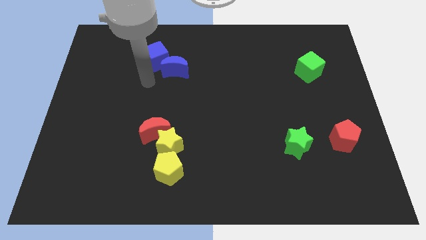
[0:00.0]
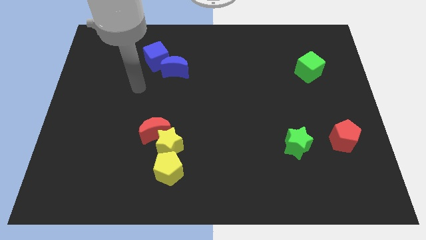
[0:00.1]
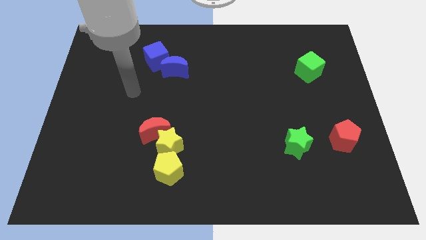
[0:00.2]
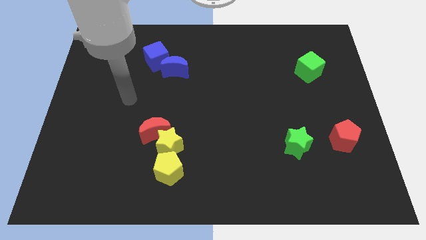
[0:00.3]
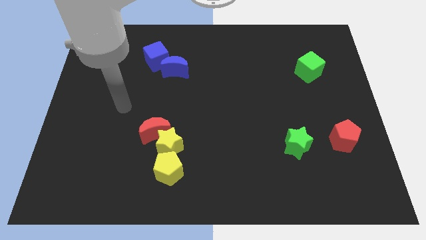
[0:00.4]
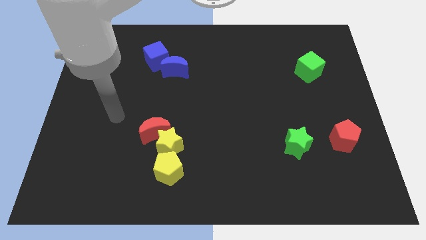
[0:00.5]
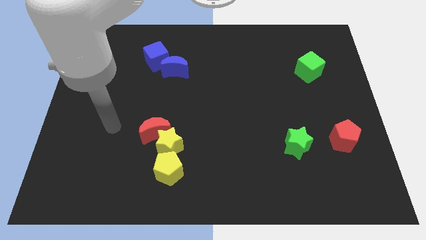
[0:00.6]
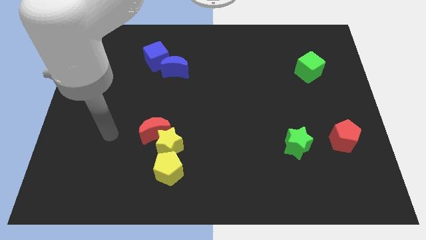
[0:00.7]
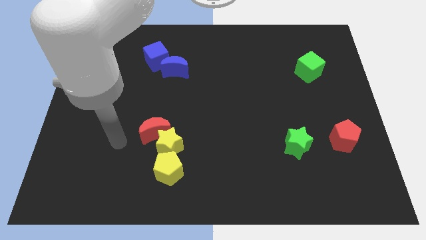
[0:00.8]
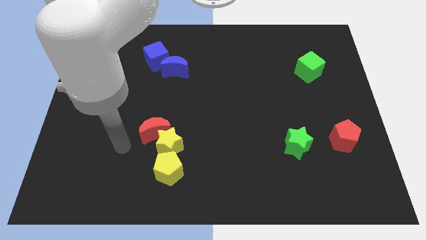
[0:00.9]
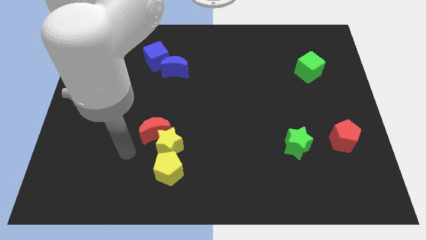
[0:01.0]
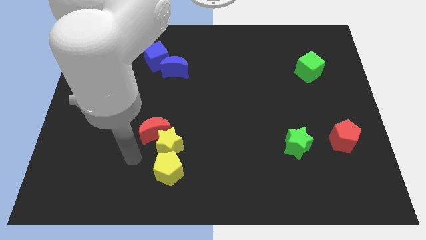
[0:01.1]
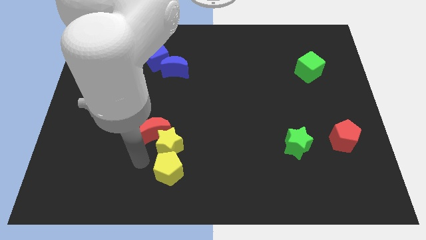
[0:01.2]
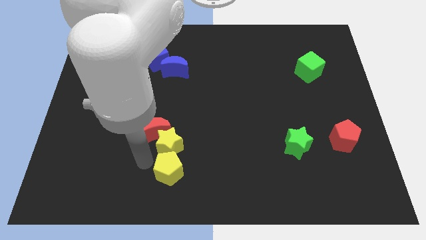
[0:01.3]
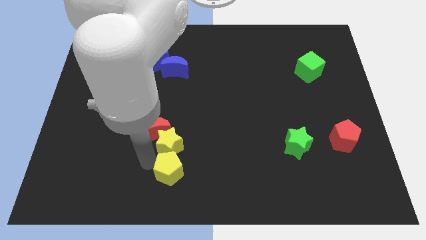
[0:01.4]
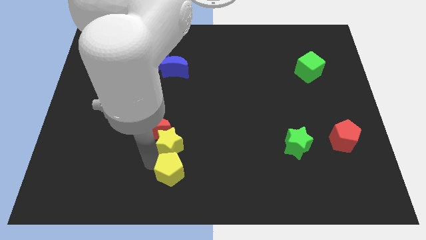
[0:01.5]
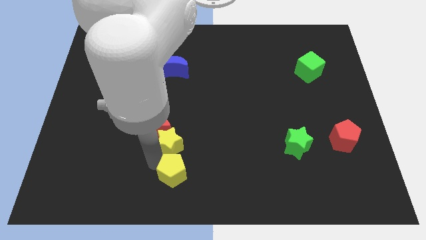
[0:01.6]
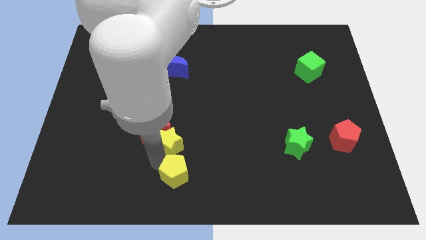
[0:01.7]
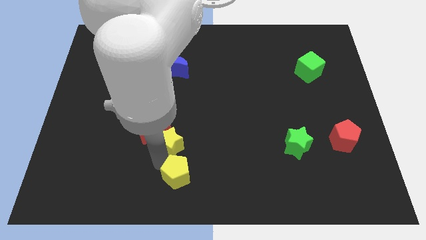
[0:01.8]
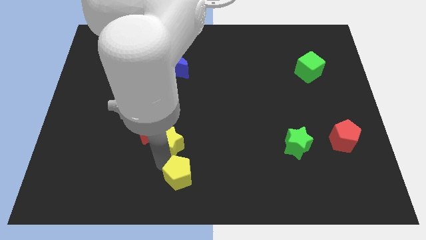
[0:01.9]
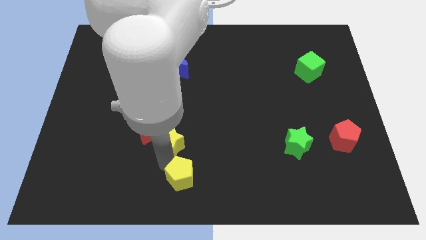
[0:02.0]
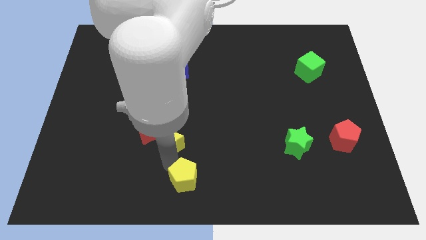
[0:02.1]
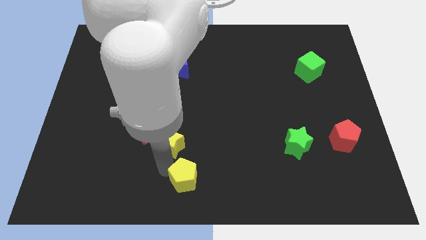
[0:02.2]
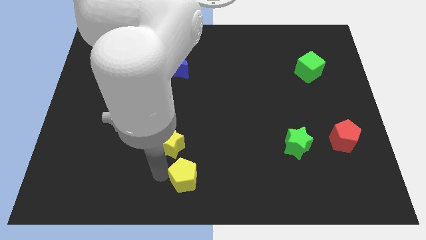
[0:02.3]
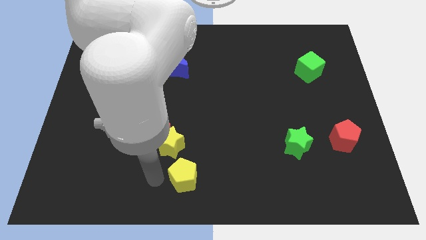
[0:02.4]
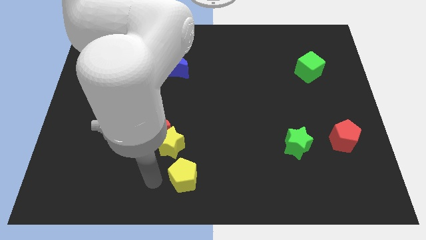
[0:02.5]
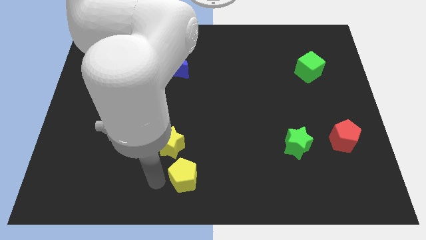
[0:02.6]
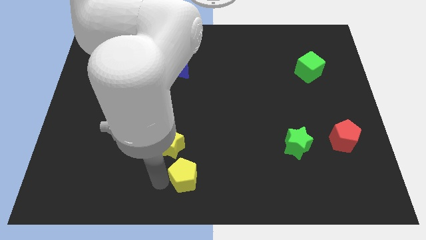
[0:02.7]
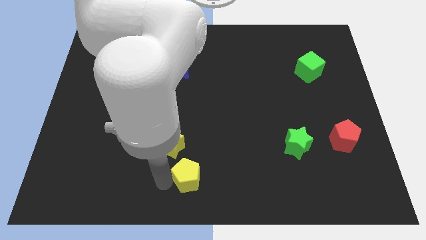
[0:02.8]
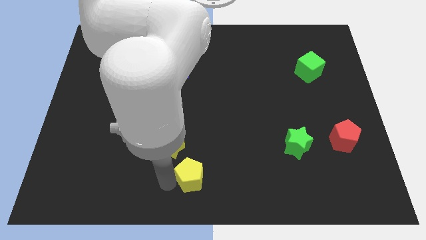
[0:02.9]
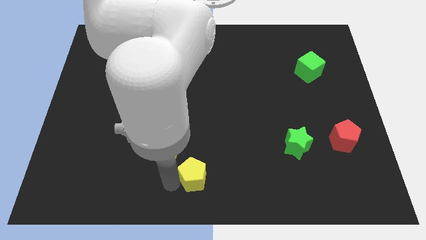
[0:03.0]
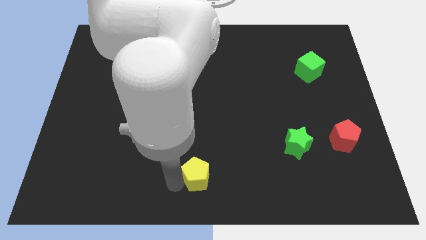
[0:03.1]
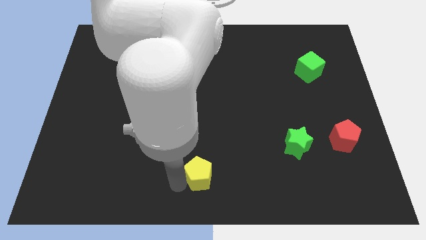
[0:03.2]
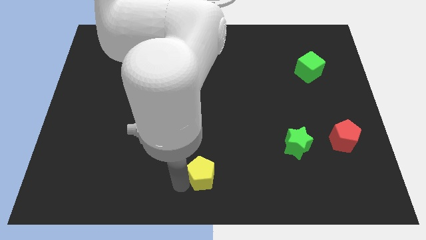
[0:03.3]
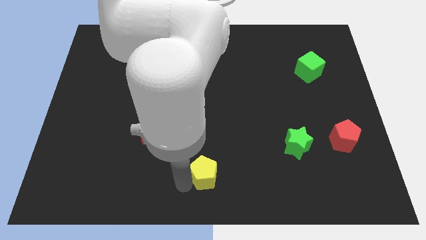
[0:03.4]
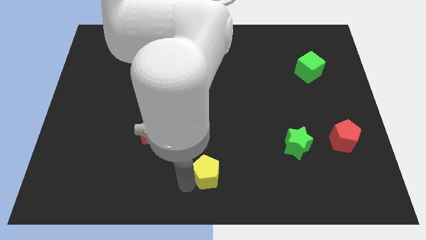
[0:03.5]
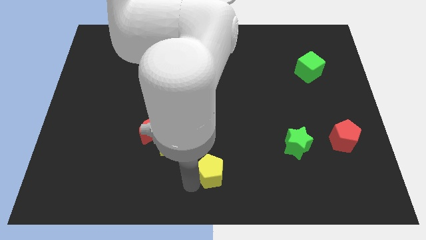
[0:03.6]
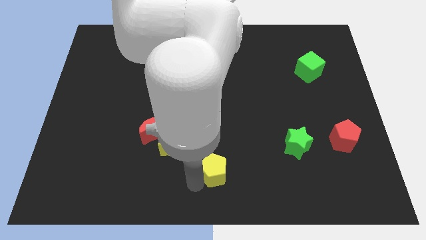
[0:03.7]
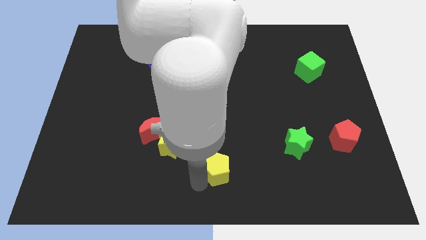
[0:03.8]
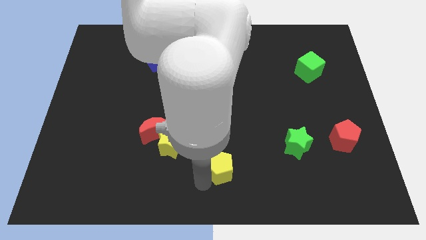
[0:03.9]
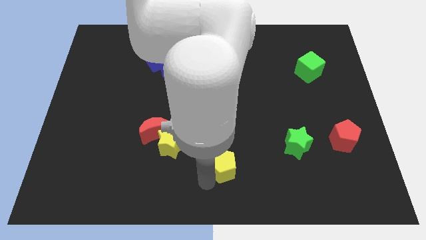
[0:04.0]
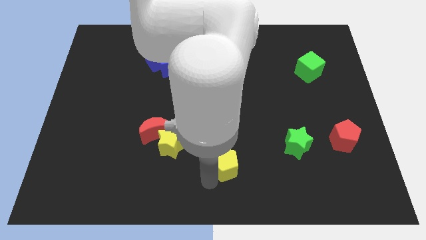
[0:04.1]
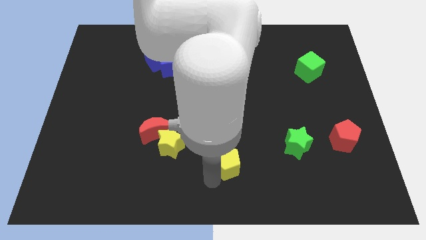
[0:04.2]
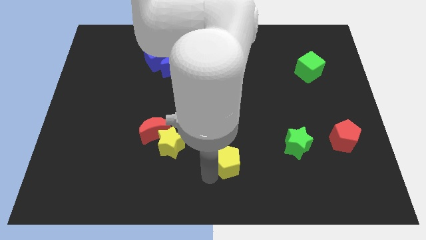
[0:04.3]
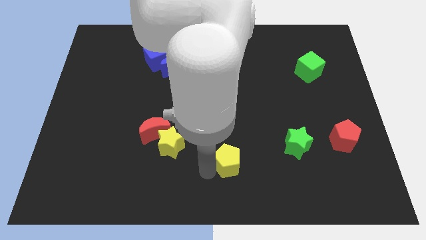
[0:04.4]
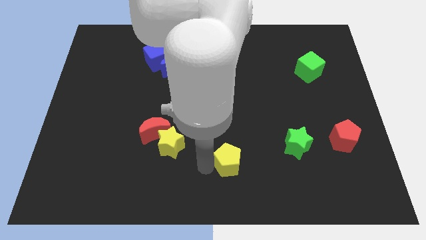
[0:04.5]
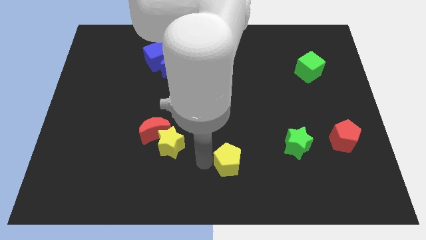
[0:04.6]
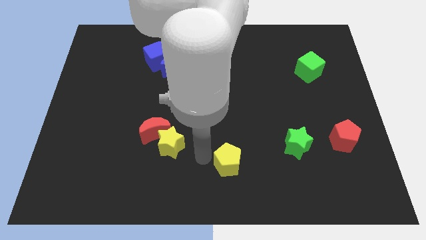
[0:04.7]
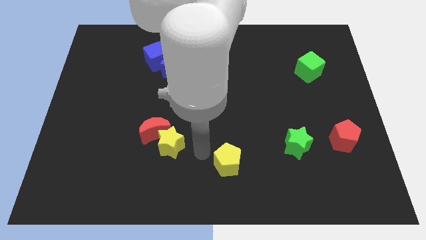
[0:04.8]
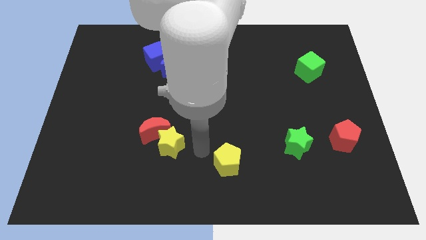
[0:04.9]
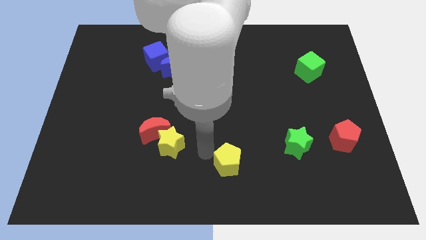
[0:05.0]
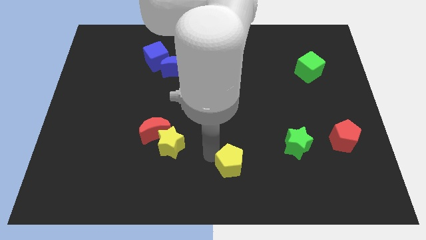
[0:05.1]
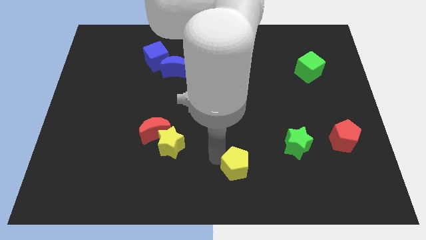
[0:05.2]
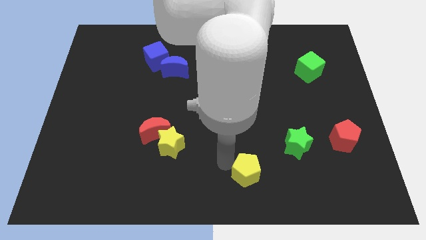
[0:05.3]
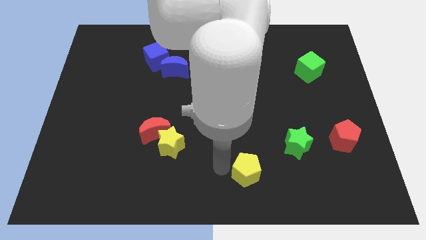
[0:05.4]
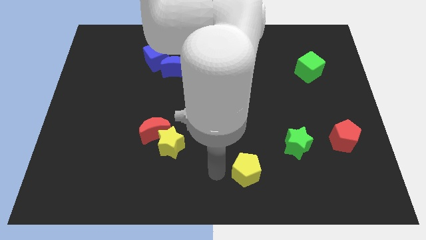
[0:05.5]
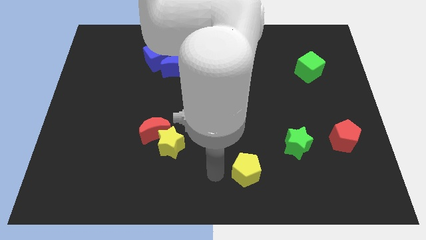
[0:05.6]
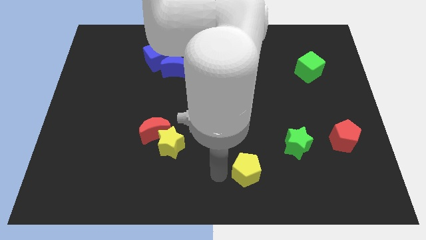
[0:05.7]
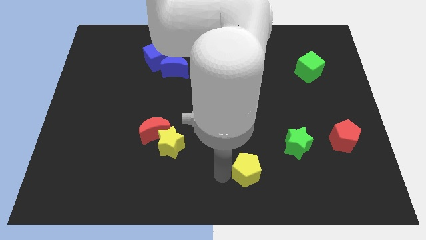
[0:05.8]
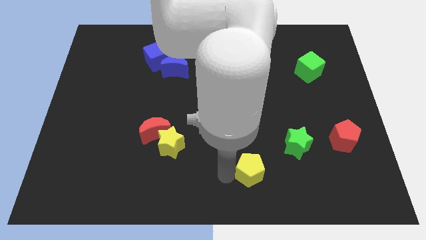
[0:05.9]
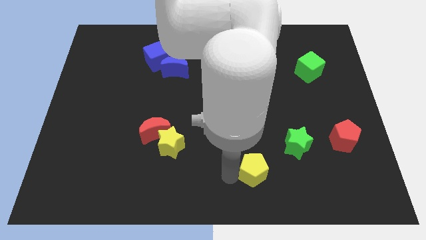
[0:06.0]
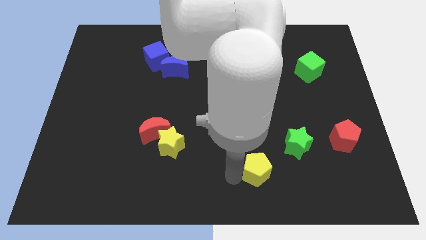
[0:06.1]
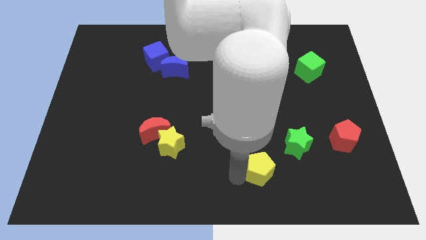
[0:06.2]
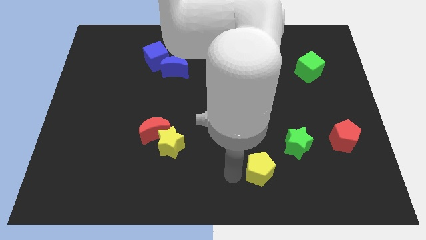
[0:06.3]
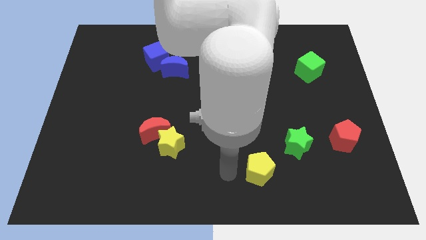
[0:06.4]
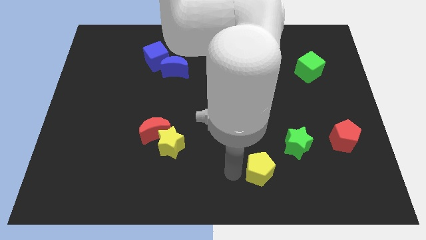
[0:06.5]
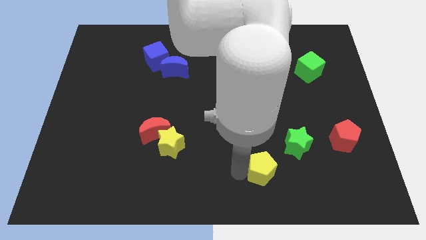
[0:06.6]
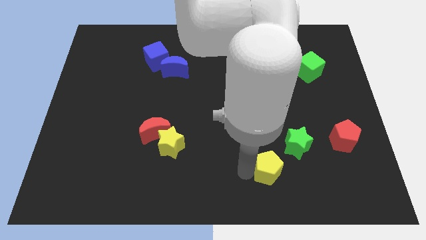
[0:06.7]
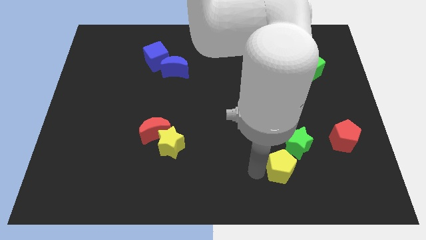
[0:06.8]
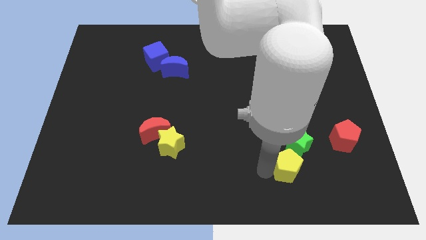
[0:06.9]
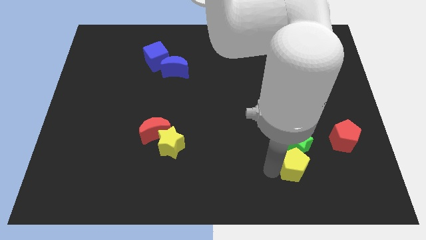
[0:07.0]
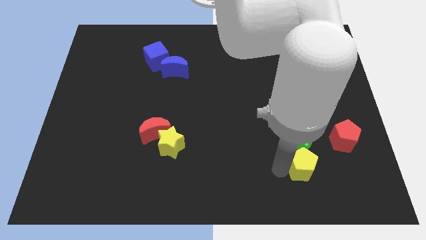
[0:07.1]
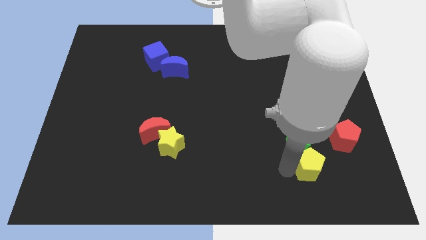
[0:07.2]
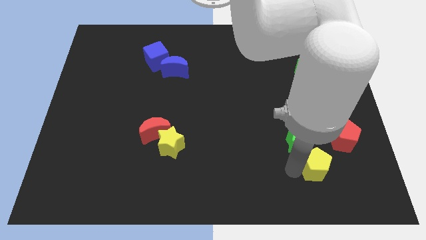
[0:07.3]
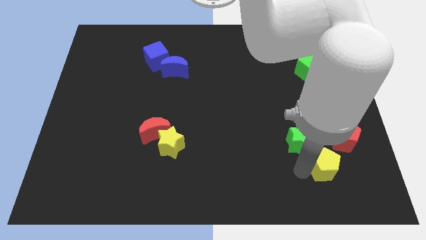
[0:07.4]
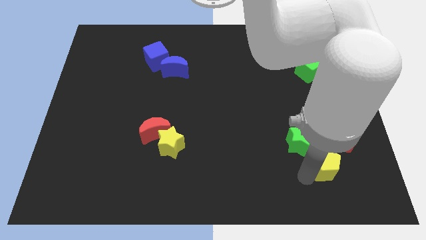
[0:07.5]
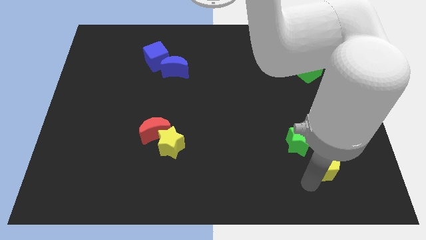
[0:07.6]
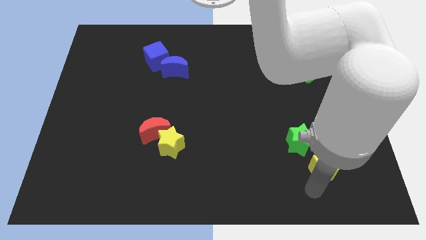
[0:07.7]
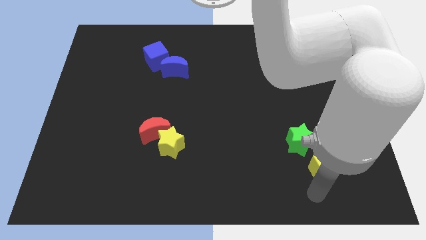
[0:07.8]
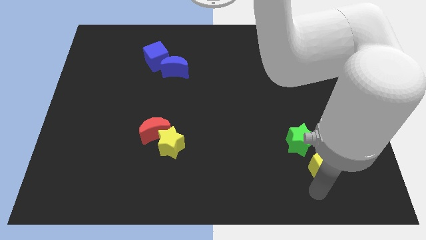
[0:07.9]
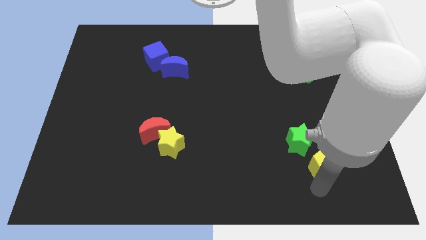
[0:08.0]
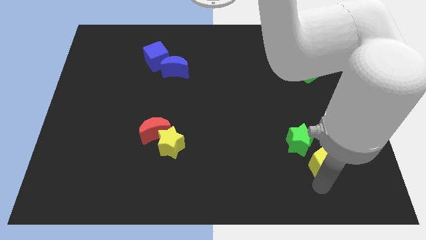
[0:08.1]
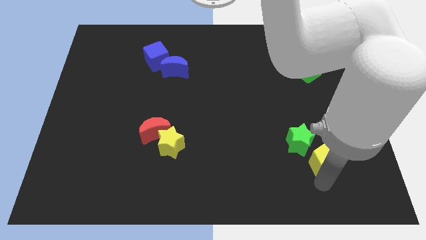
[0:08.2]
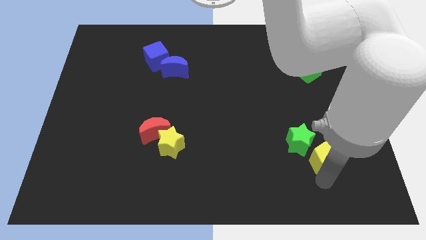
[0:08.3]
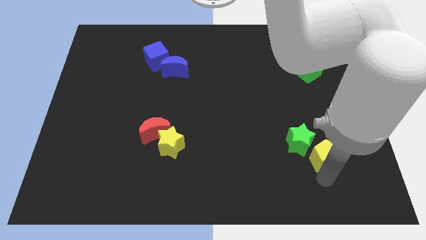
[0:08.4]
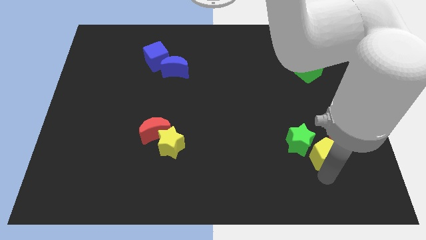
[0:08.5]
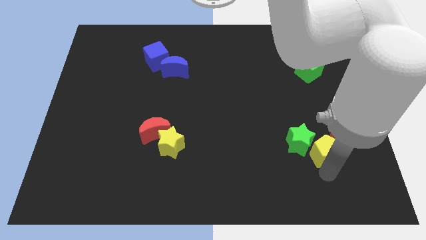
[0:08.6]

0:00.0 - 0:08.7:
move the yellow pentagon next to the red pentagon

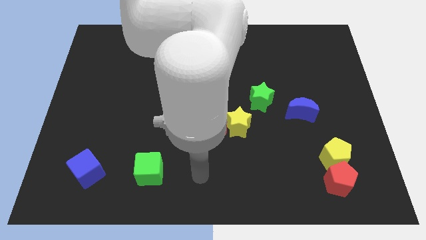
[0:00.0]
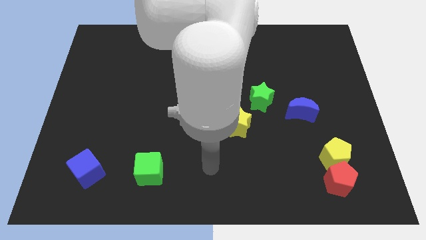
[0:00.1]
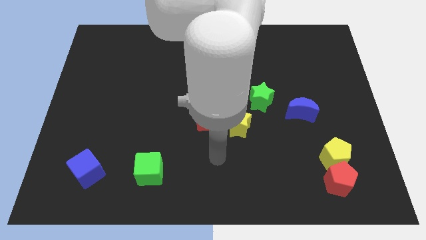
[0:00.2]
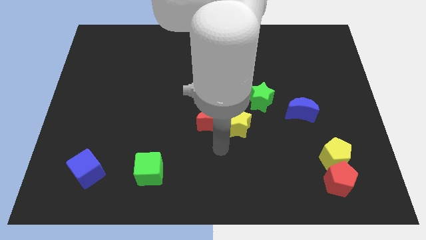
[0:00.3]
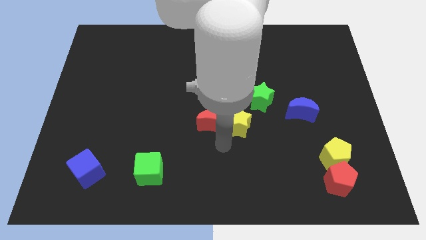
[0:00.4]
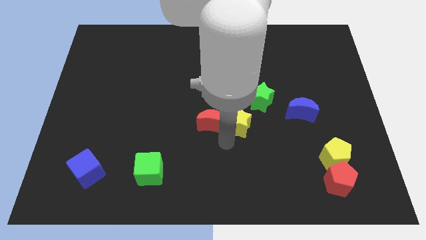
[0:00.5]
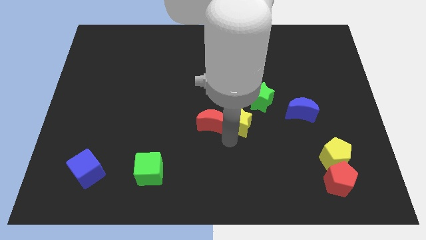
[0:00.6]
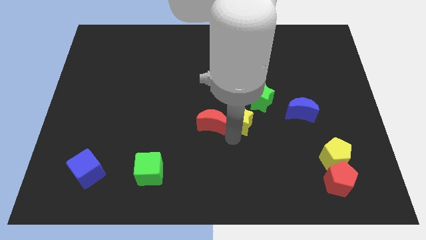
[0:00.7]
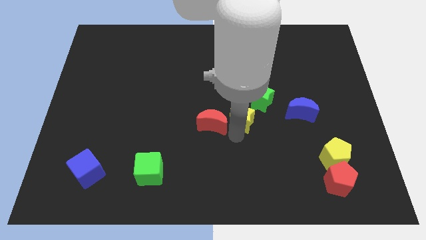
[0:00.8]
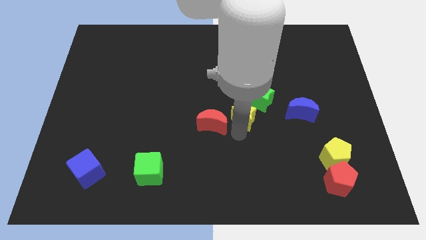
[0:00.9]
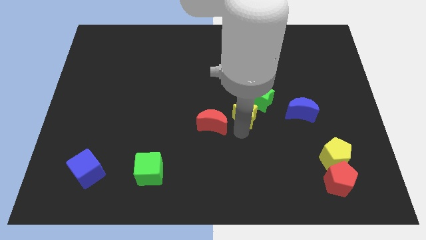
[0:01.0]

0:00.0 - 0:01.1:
put the yellow star towards the green star
